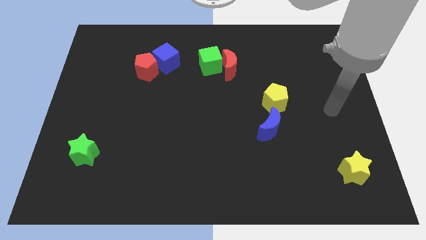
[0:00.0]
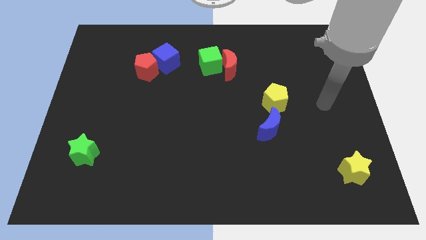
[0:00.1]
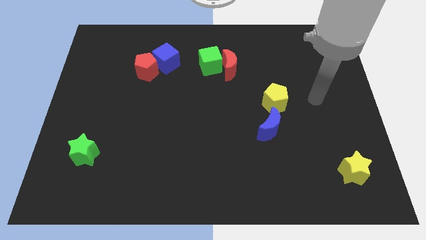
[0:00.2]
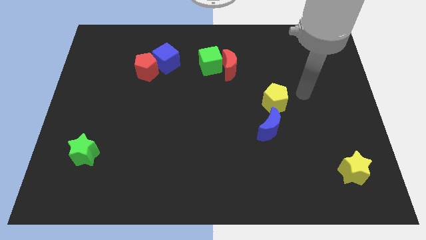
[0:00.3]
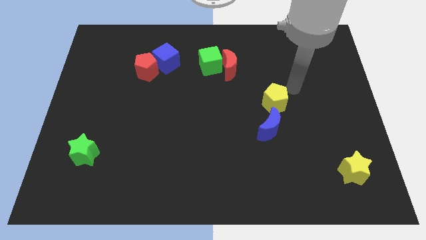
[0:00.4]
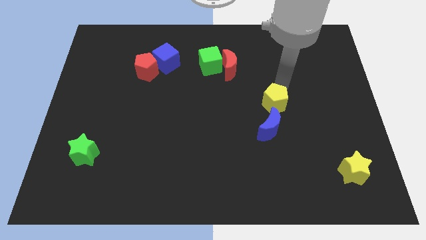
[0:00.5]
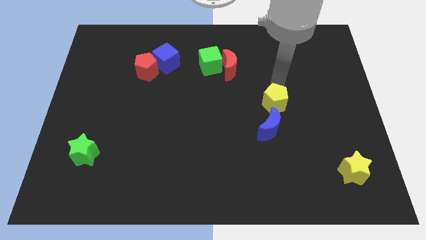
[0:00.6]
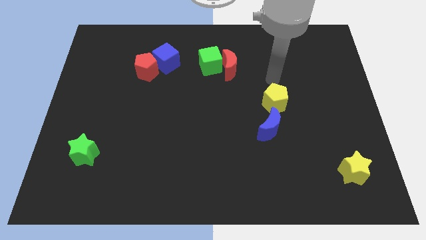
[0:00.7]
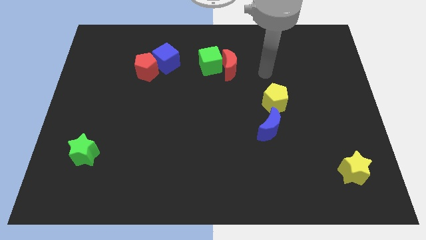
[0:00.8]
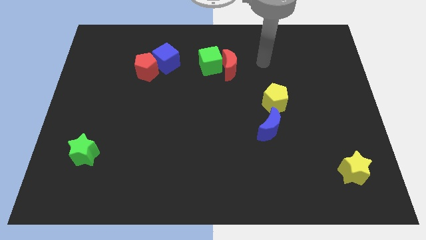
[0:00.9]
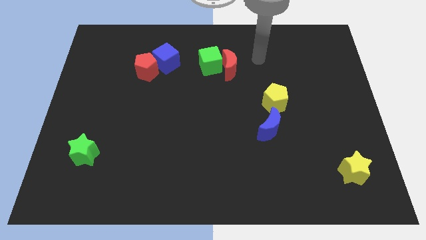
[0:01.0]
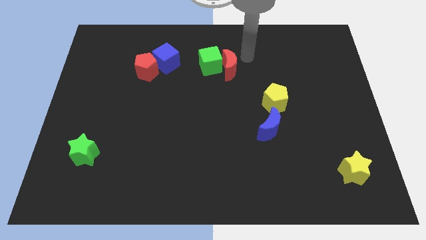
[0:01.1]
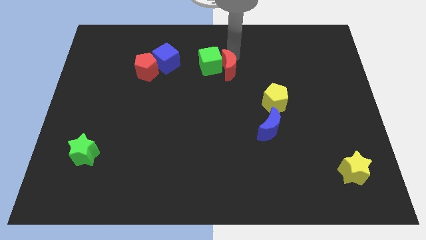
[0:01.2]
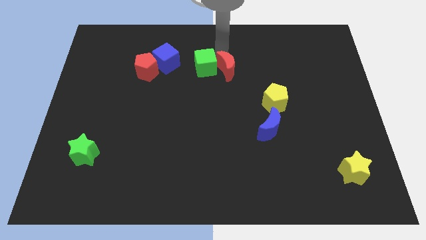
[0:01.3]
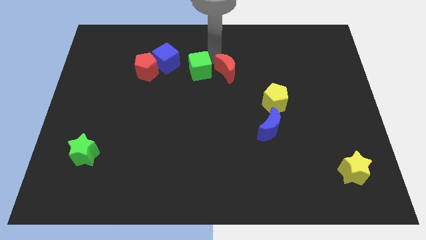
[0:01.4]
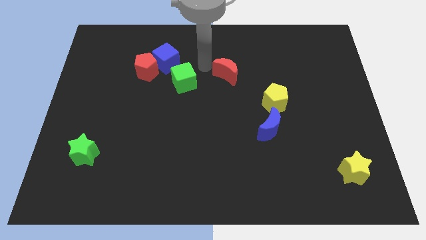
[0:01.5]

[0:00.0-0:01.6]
pull the red moon apart from the green cube

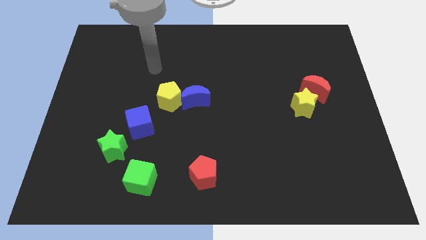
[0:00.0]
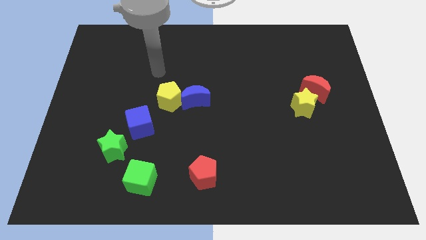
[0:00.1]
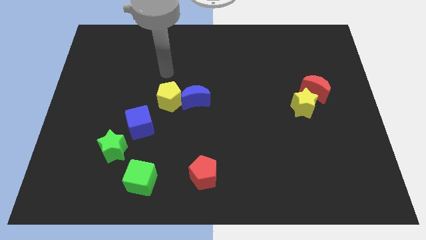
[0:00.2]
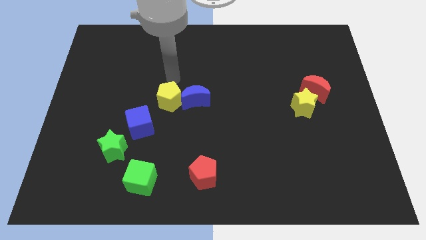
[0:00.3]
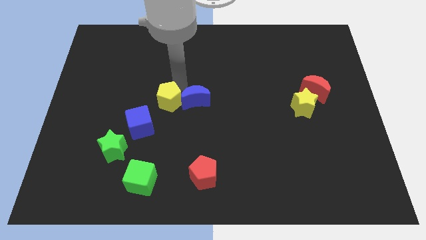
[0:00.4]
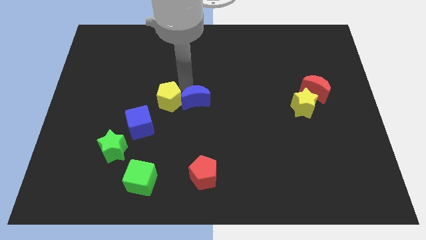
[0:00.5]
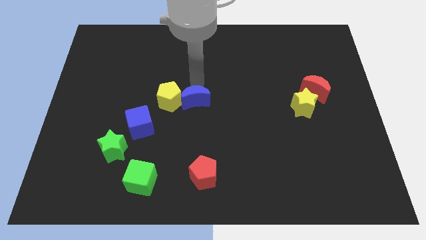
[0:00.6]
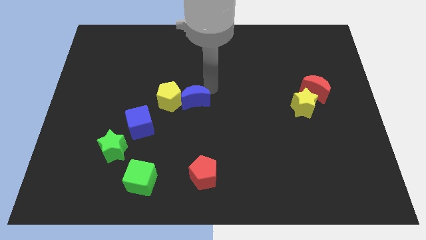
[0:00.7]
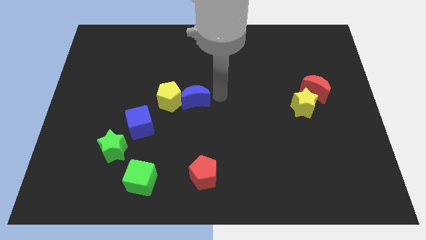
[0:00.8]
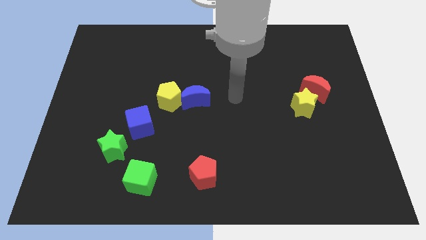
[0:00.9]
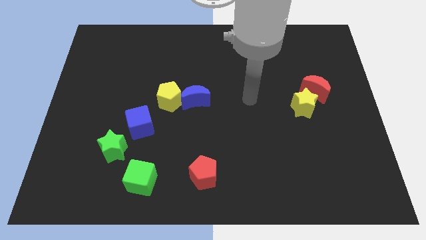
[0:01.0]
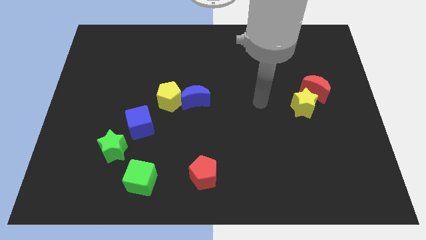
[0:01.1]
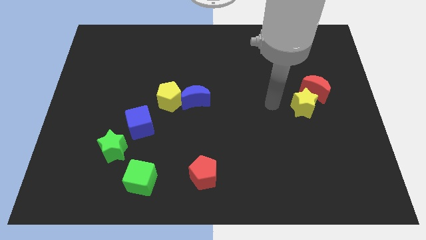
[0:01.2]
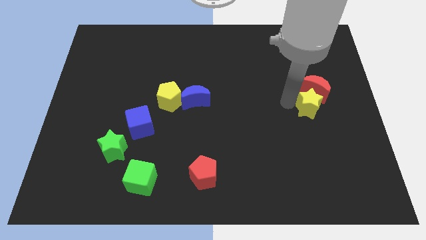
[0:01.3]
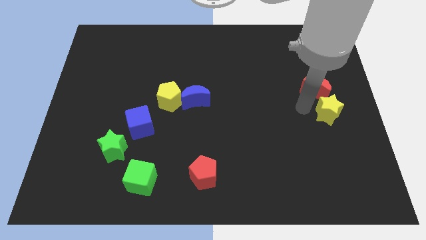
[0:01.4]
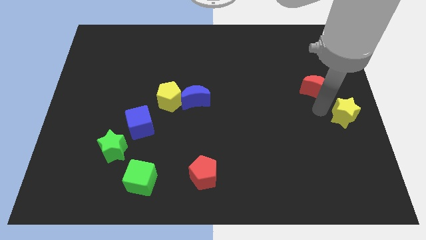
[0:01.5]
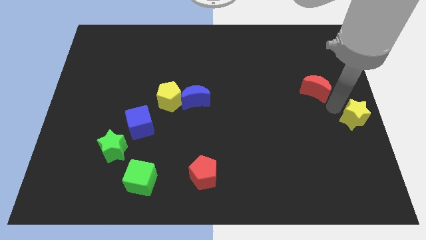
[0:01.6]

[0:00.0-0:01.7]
separate the red moon from the yellow star

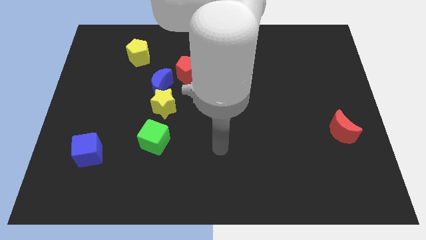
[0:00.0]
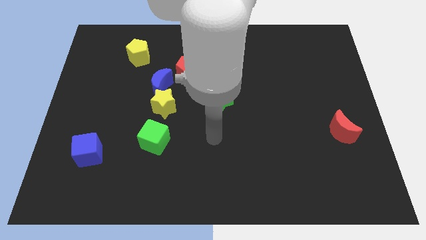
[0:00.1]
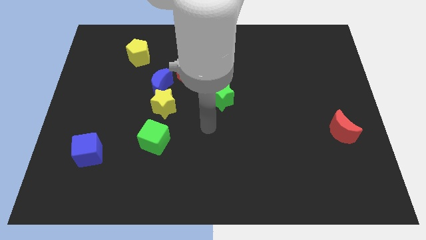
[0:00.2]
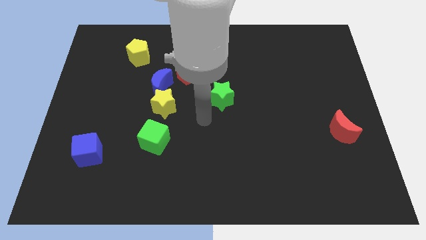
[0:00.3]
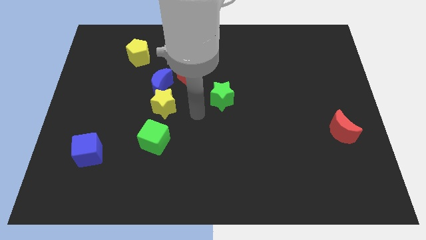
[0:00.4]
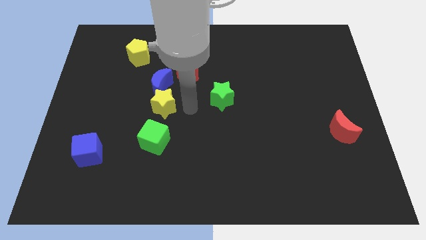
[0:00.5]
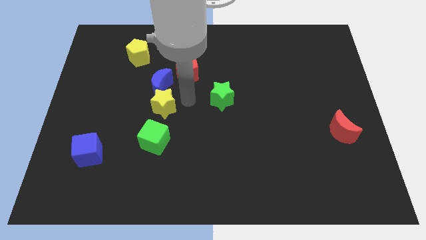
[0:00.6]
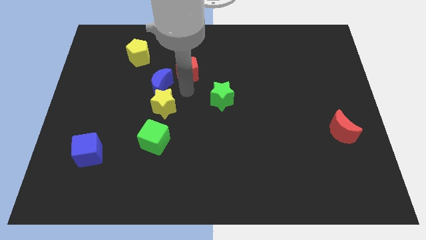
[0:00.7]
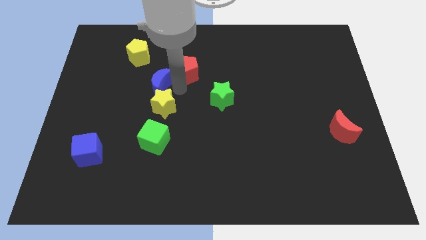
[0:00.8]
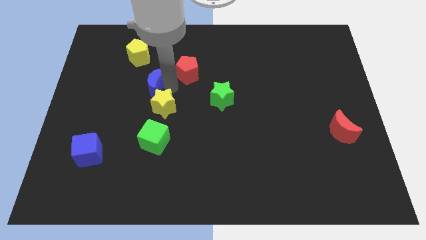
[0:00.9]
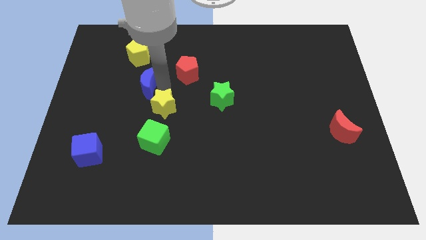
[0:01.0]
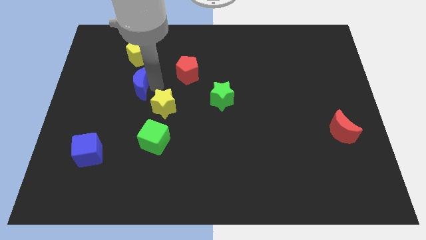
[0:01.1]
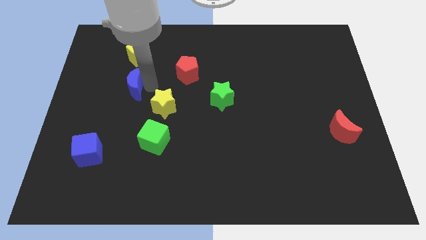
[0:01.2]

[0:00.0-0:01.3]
separate the blue moon from the yellow star and red pentagon

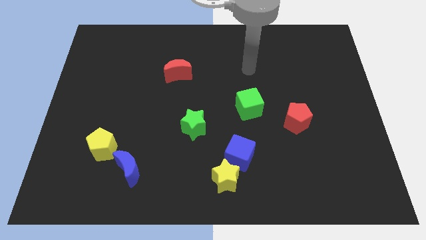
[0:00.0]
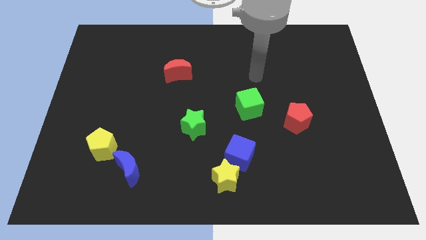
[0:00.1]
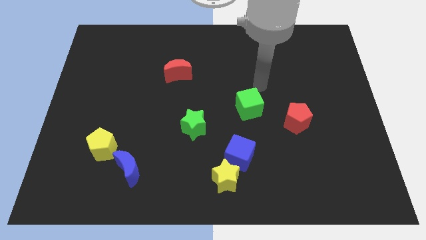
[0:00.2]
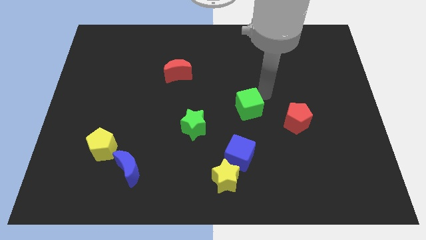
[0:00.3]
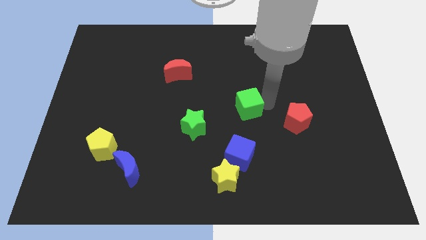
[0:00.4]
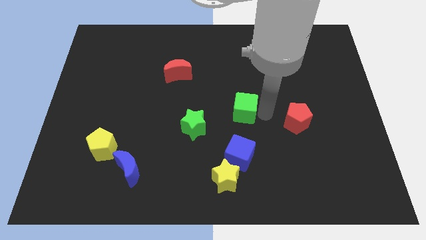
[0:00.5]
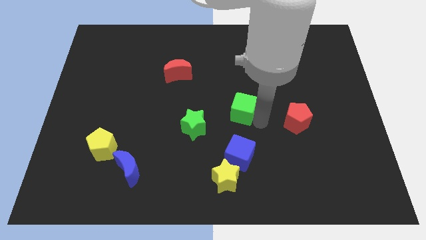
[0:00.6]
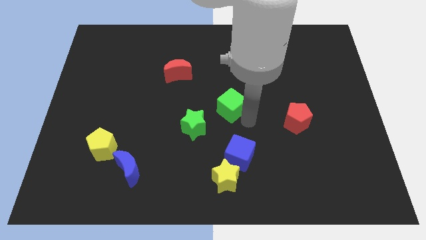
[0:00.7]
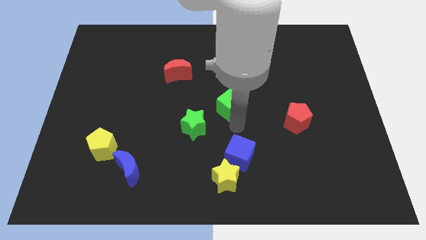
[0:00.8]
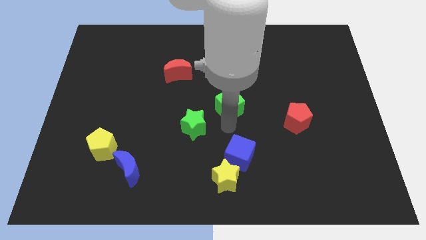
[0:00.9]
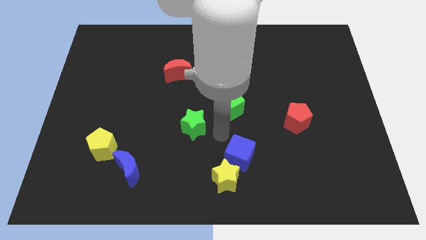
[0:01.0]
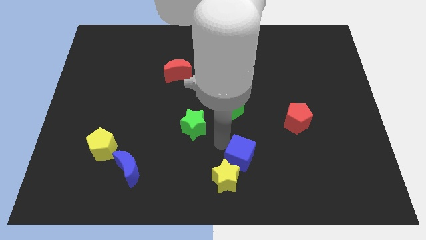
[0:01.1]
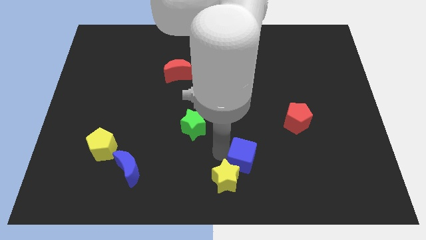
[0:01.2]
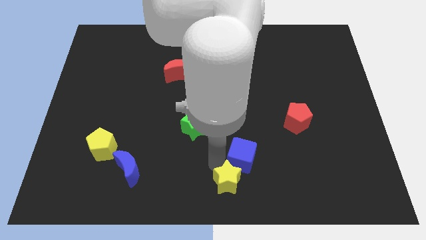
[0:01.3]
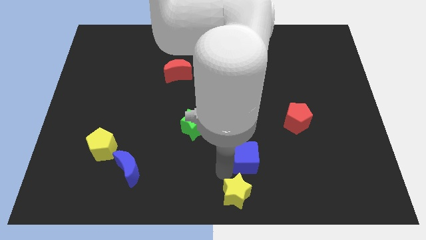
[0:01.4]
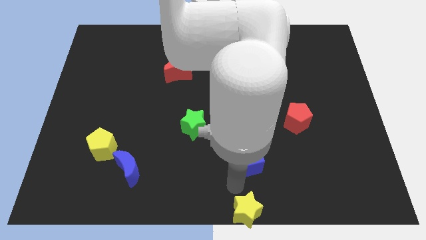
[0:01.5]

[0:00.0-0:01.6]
pull the blue cube apart from the yellow star

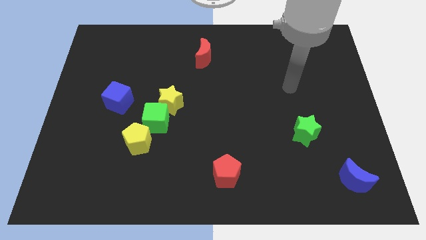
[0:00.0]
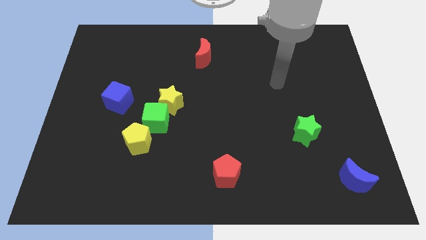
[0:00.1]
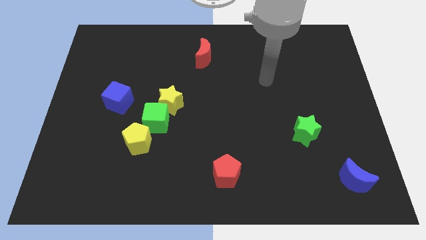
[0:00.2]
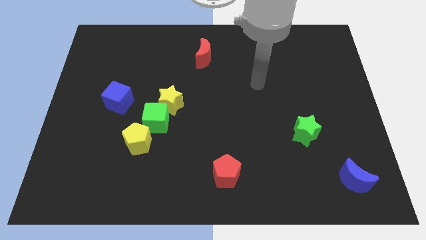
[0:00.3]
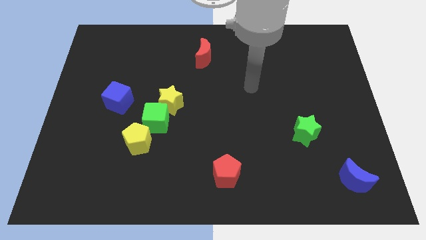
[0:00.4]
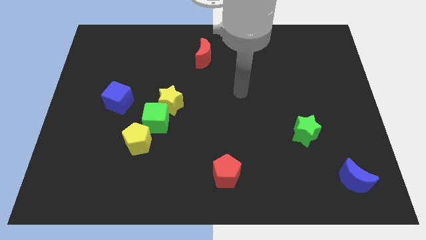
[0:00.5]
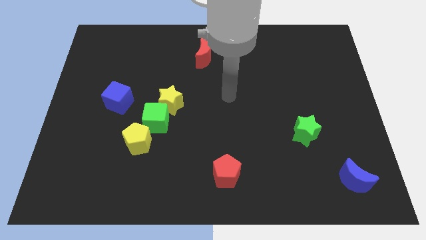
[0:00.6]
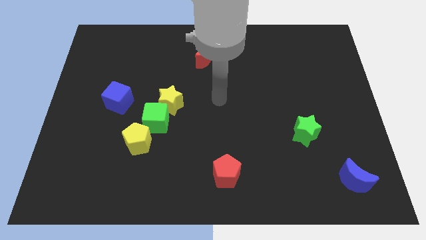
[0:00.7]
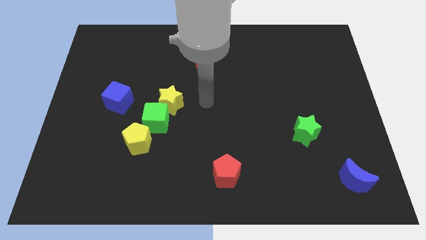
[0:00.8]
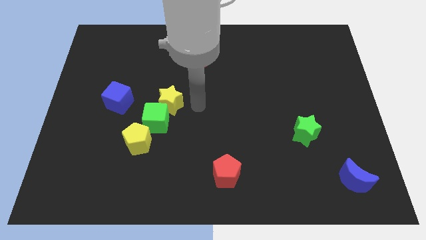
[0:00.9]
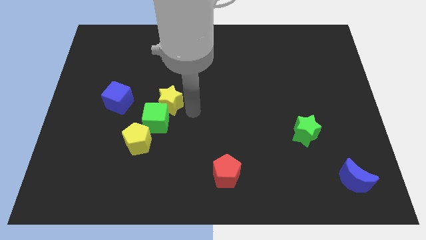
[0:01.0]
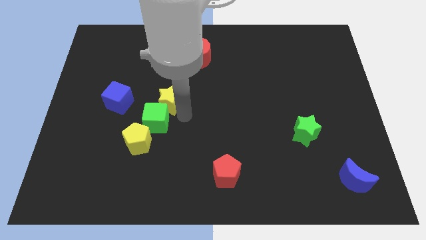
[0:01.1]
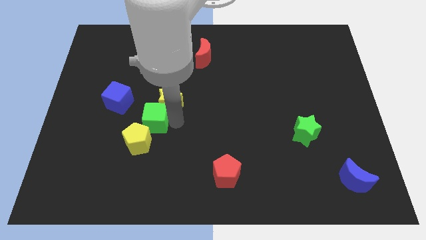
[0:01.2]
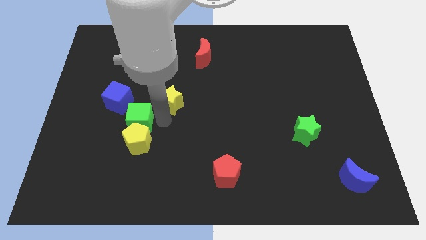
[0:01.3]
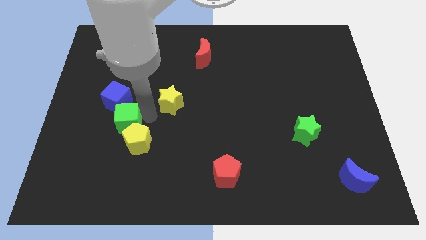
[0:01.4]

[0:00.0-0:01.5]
pull the yellow star apart from the green cube

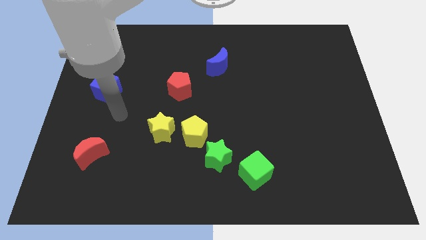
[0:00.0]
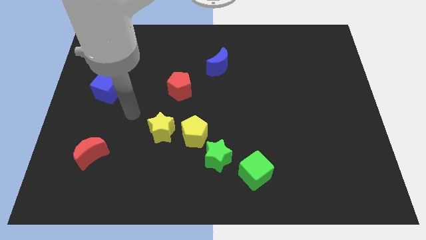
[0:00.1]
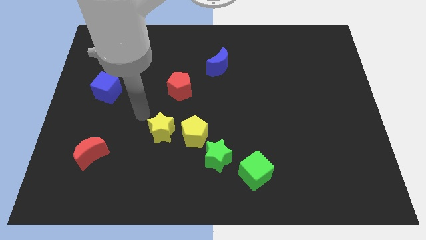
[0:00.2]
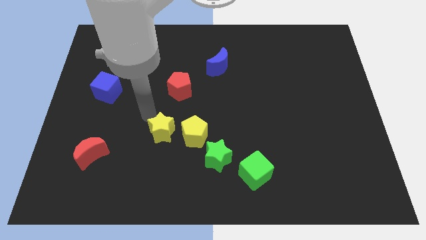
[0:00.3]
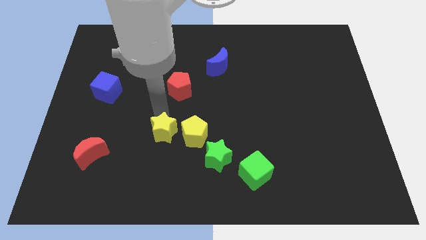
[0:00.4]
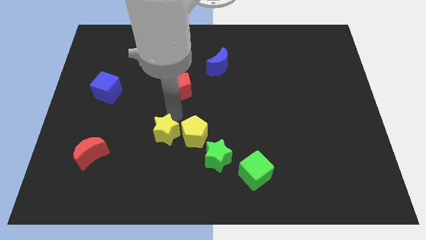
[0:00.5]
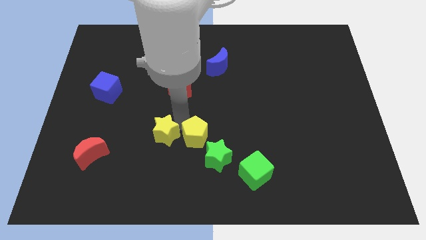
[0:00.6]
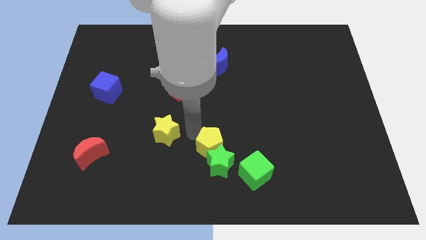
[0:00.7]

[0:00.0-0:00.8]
move the yellow star away from the yellow pentagon

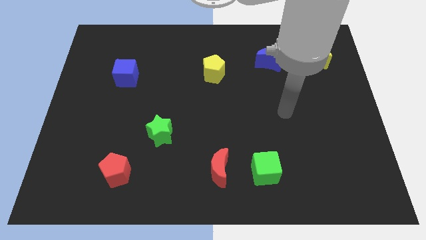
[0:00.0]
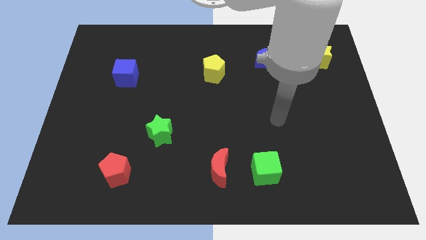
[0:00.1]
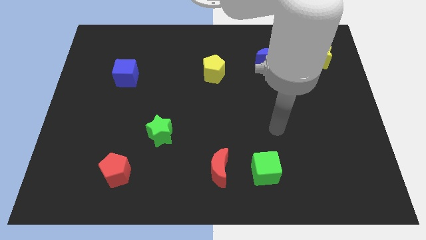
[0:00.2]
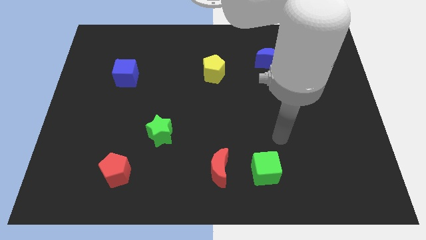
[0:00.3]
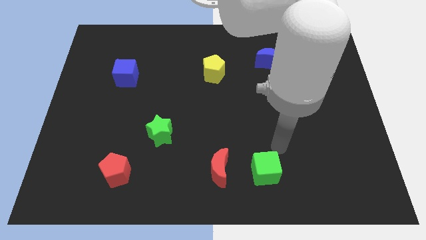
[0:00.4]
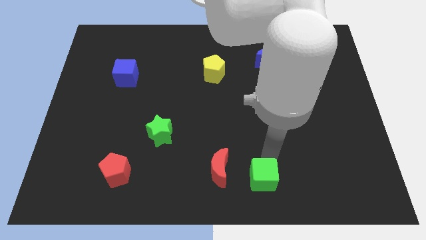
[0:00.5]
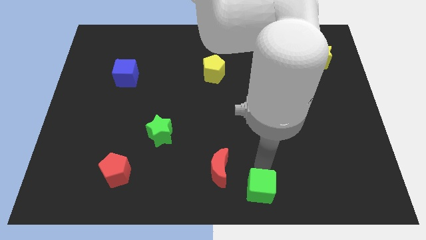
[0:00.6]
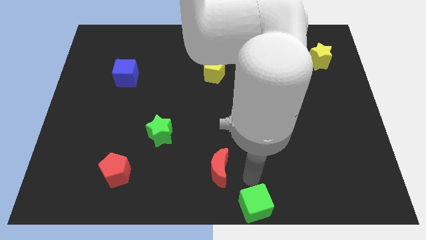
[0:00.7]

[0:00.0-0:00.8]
move the red moon away from the green cube
